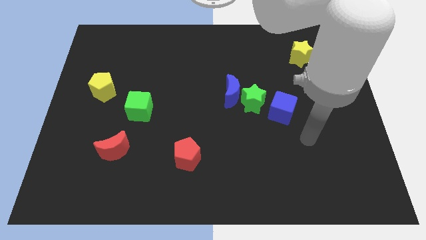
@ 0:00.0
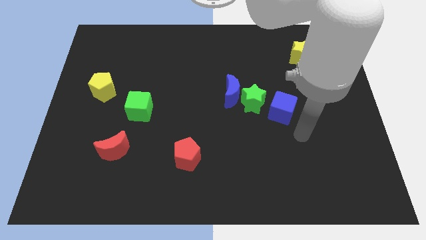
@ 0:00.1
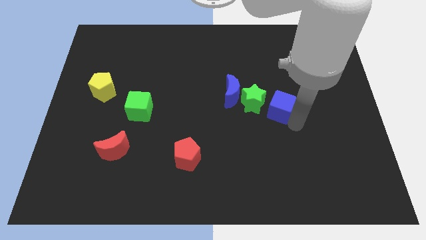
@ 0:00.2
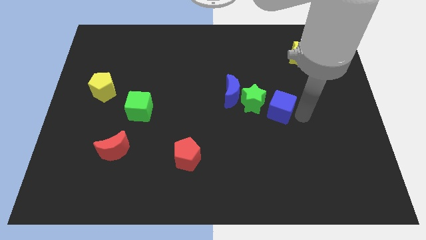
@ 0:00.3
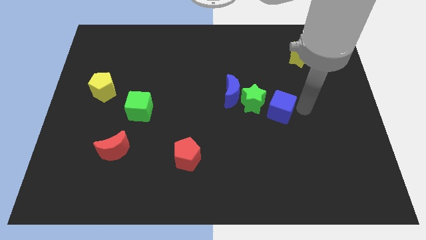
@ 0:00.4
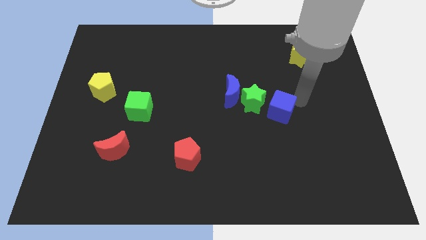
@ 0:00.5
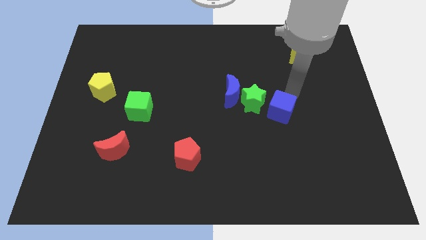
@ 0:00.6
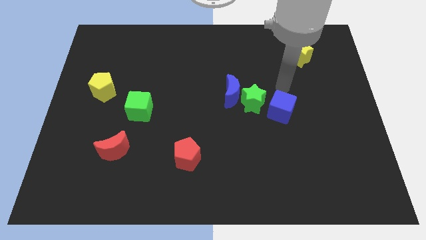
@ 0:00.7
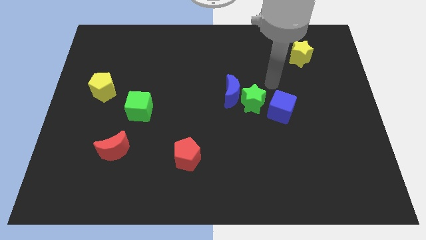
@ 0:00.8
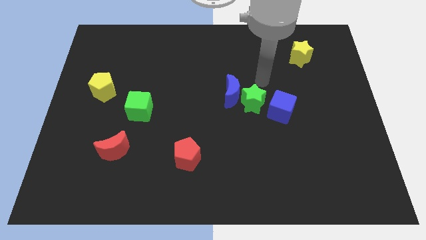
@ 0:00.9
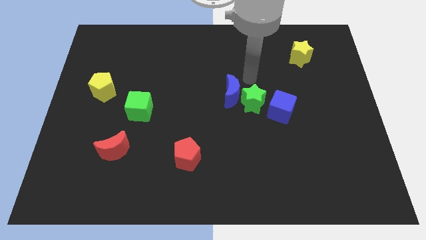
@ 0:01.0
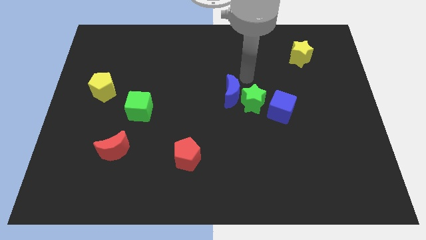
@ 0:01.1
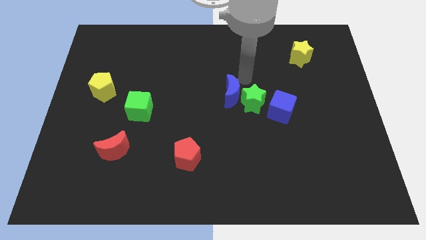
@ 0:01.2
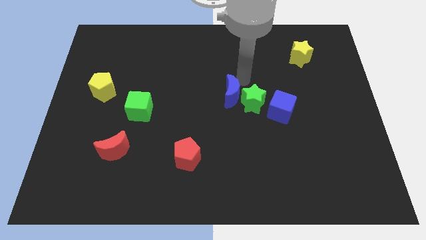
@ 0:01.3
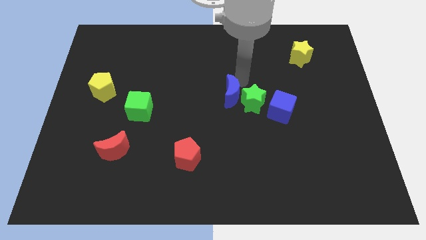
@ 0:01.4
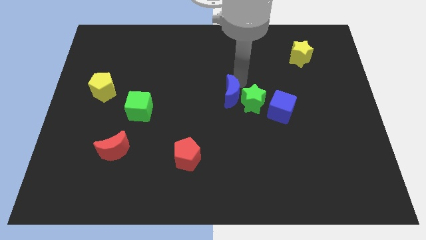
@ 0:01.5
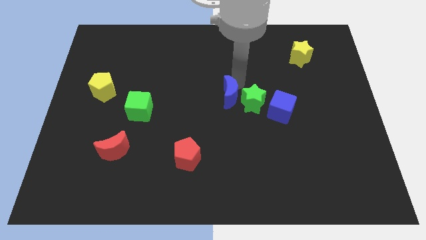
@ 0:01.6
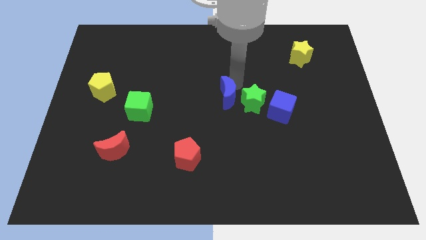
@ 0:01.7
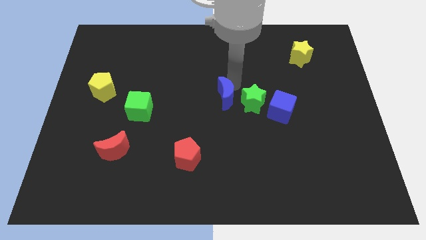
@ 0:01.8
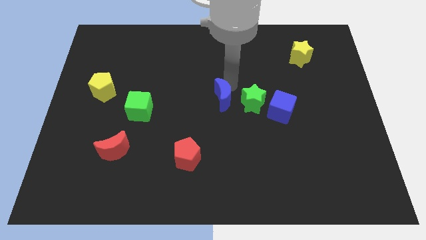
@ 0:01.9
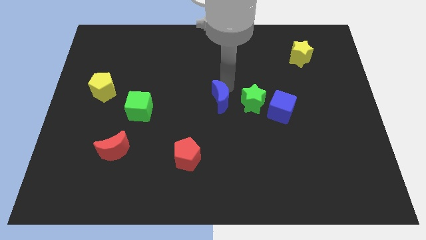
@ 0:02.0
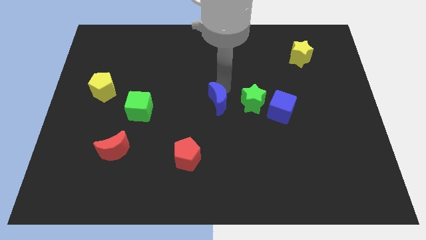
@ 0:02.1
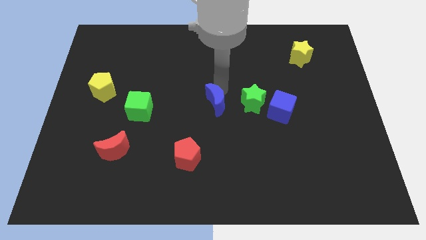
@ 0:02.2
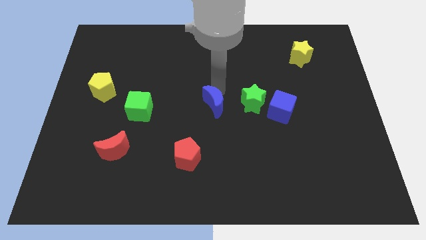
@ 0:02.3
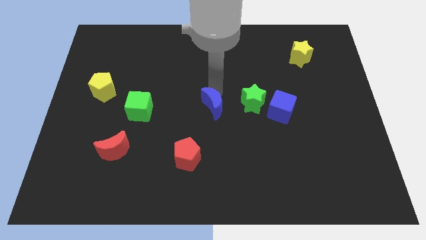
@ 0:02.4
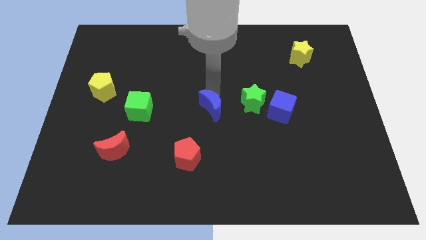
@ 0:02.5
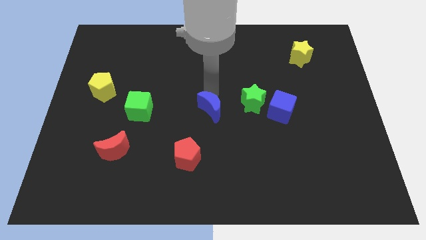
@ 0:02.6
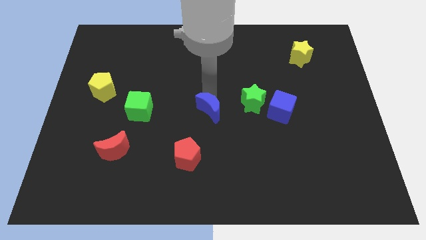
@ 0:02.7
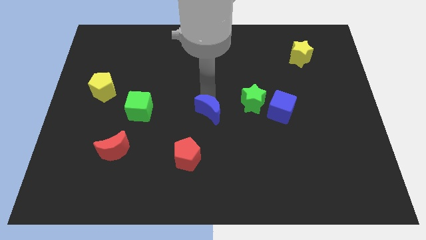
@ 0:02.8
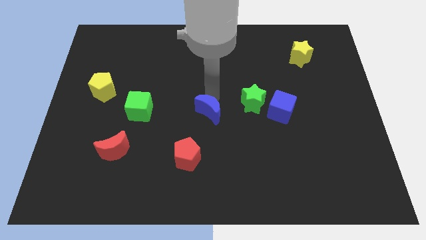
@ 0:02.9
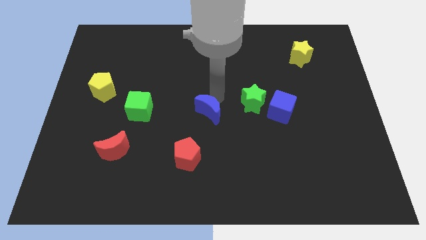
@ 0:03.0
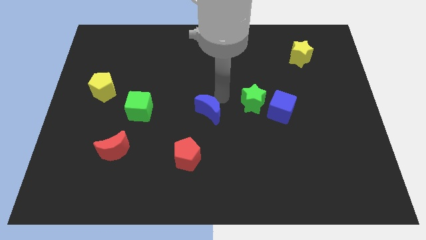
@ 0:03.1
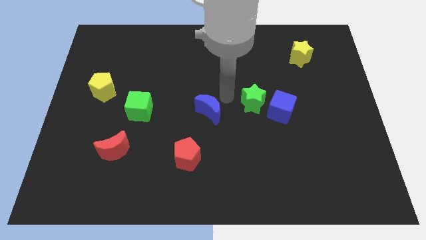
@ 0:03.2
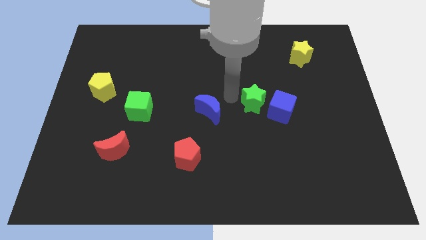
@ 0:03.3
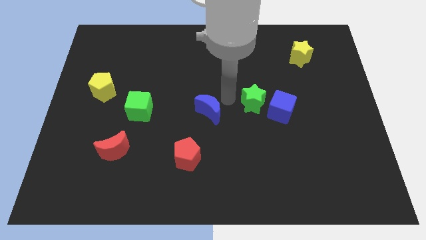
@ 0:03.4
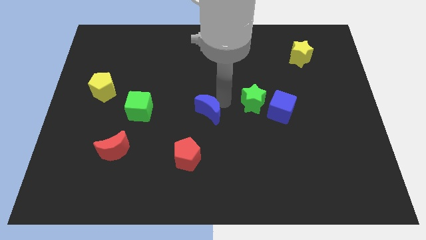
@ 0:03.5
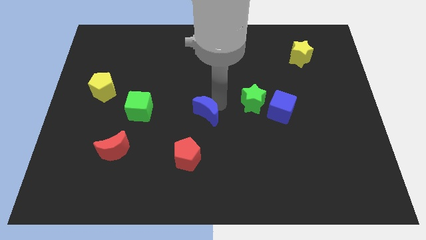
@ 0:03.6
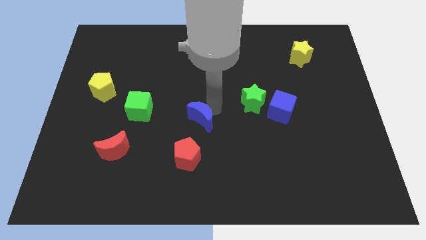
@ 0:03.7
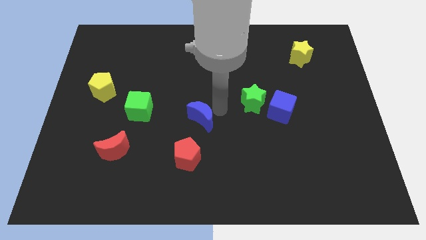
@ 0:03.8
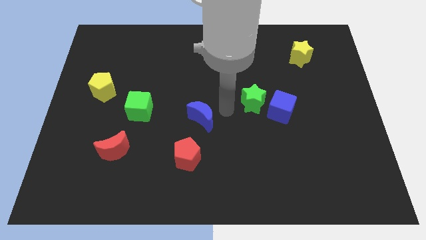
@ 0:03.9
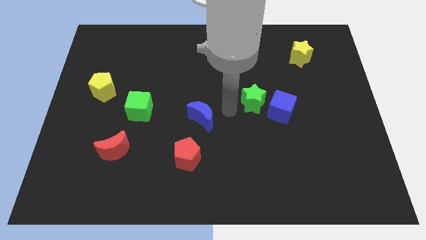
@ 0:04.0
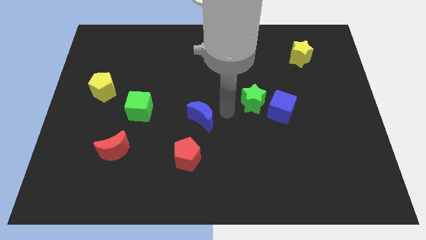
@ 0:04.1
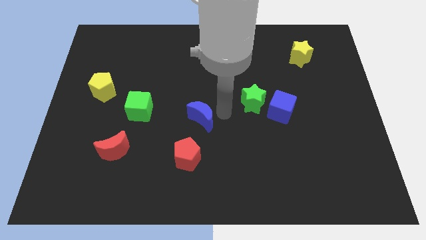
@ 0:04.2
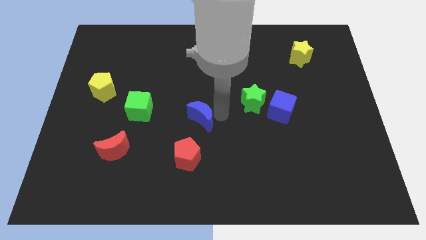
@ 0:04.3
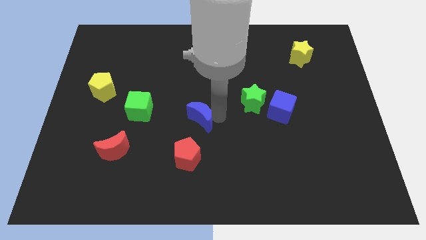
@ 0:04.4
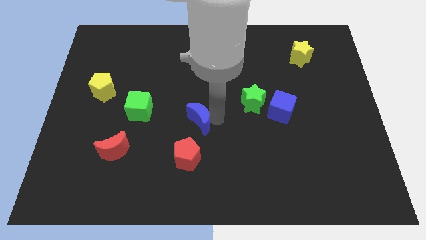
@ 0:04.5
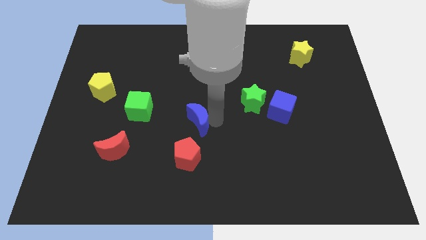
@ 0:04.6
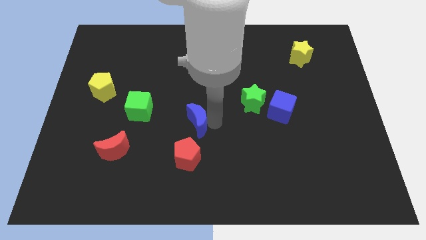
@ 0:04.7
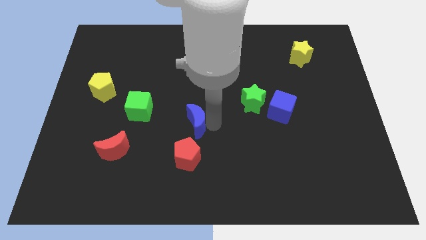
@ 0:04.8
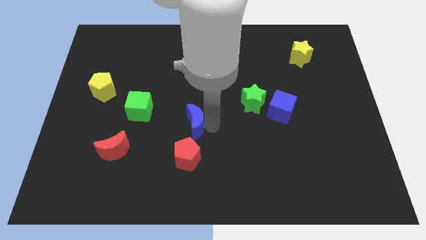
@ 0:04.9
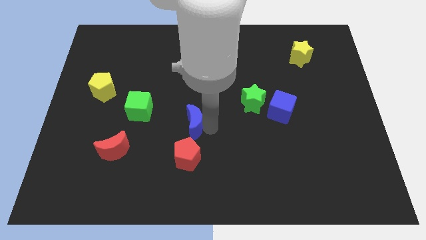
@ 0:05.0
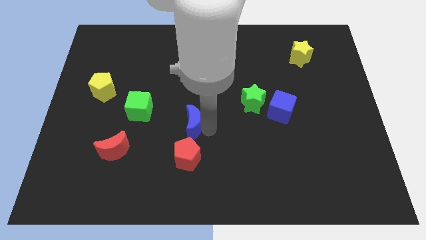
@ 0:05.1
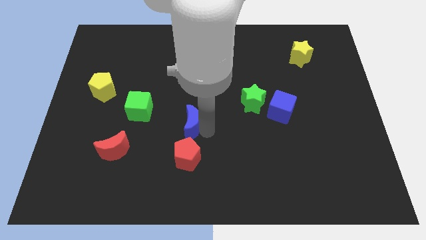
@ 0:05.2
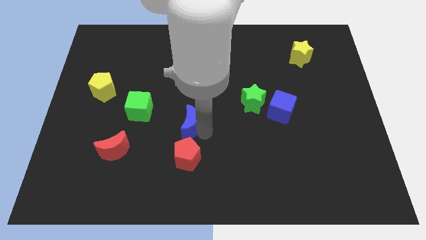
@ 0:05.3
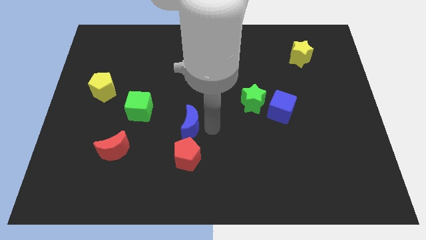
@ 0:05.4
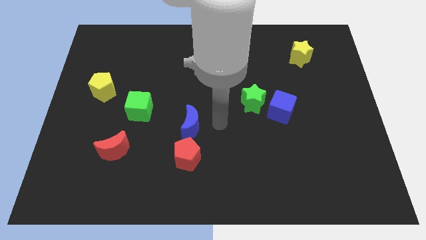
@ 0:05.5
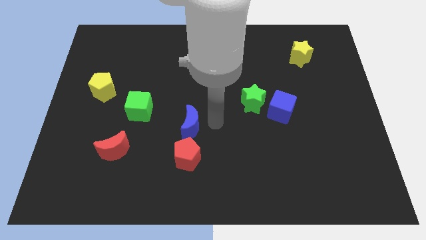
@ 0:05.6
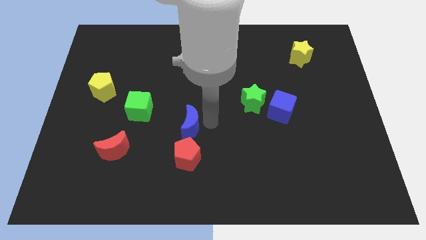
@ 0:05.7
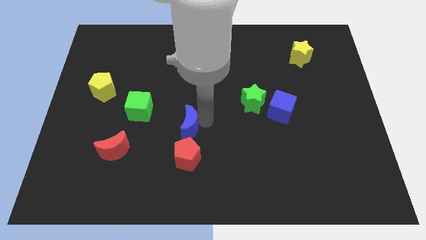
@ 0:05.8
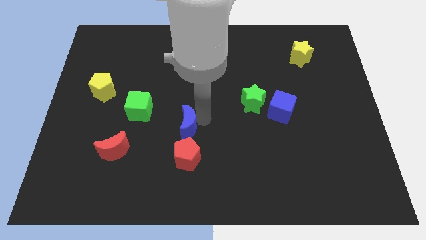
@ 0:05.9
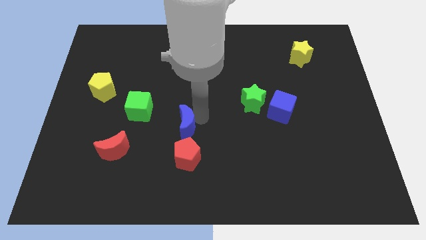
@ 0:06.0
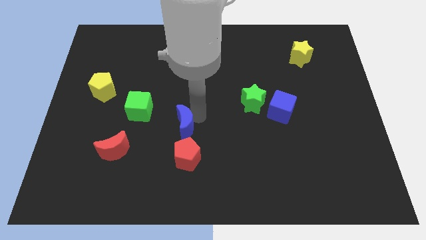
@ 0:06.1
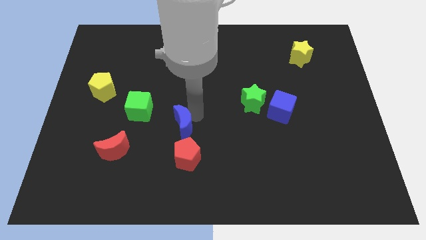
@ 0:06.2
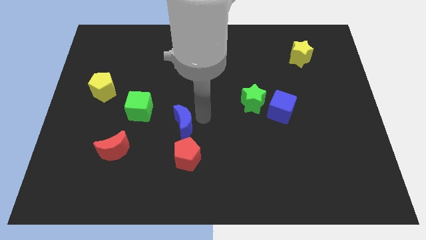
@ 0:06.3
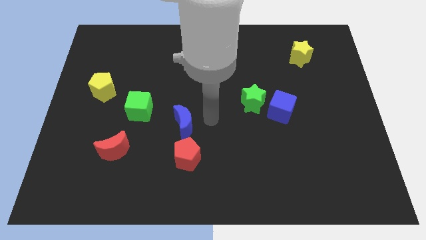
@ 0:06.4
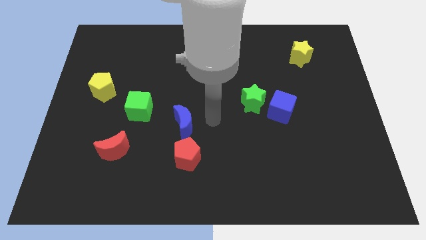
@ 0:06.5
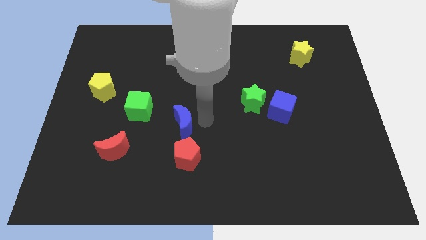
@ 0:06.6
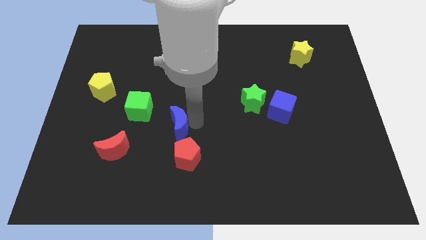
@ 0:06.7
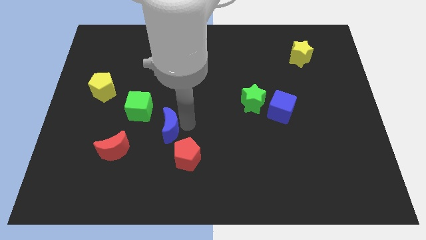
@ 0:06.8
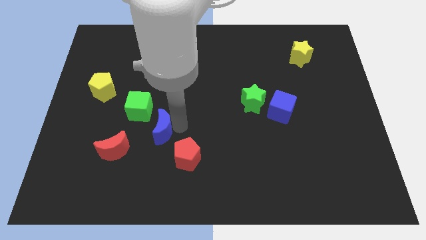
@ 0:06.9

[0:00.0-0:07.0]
slide the blue moon to the top right of the red moon

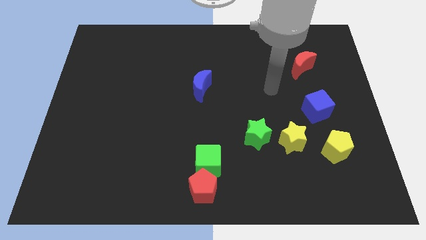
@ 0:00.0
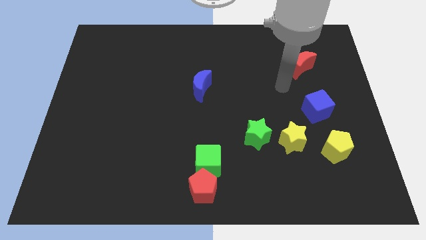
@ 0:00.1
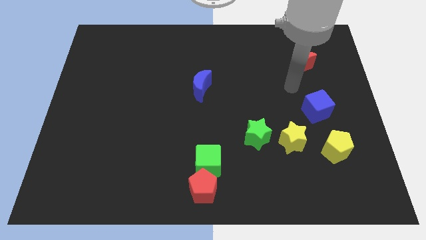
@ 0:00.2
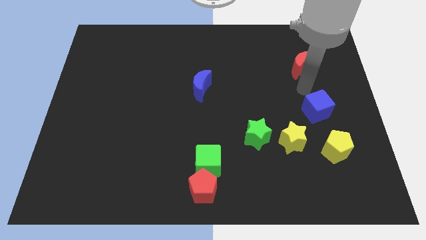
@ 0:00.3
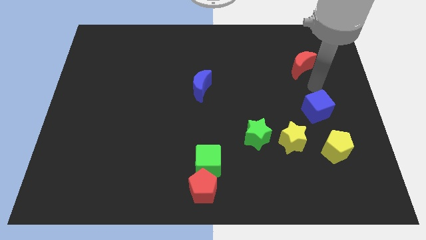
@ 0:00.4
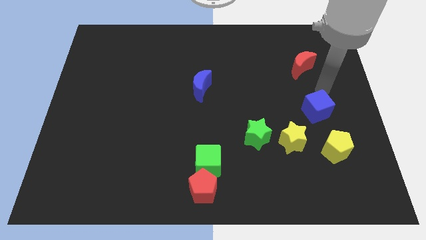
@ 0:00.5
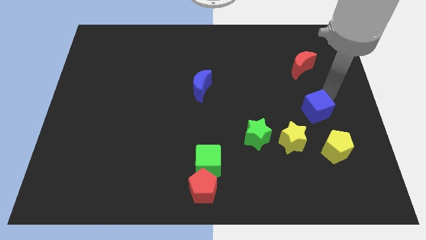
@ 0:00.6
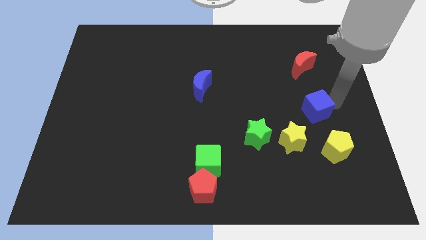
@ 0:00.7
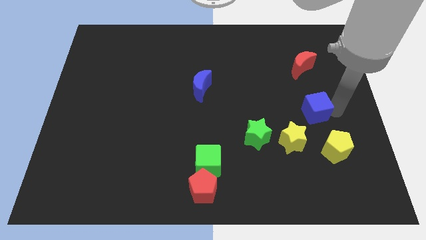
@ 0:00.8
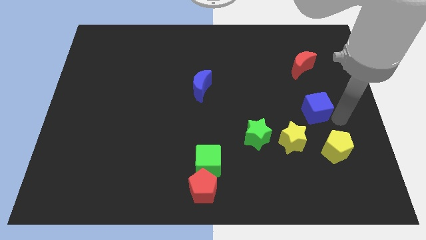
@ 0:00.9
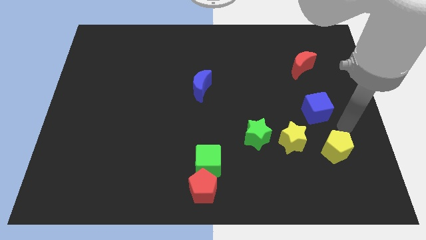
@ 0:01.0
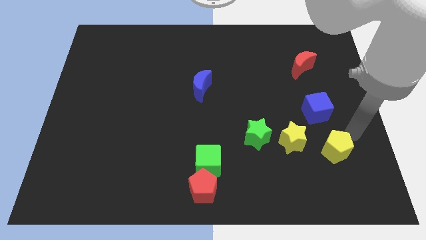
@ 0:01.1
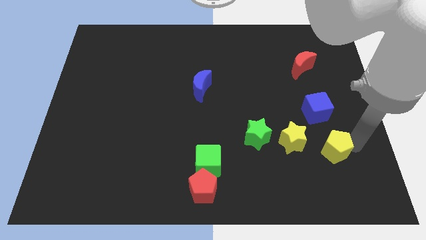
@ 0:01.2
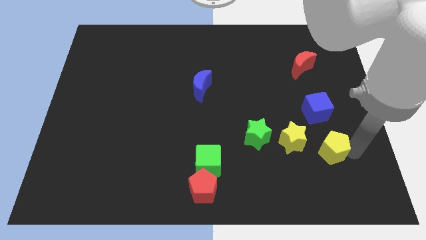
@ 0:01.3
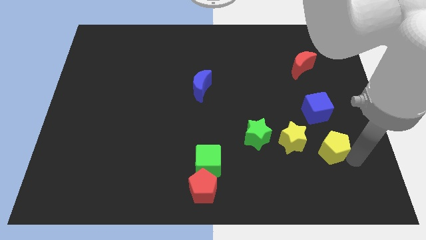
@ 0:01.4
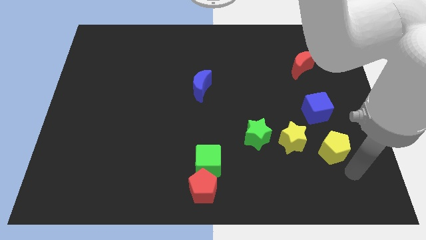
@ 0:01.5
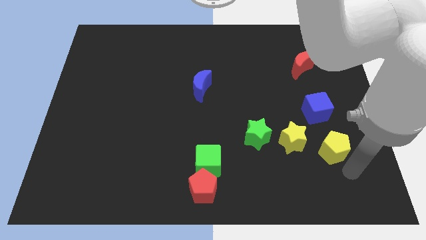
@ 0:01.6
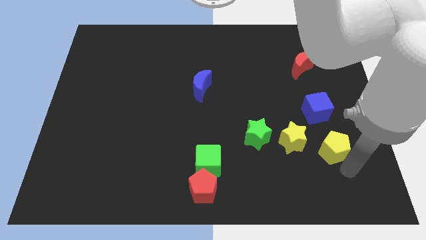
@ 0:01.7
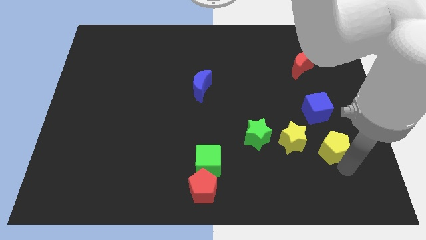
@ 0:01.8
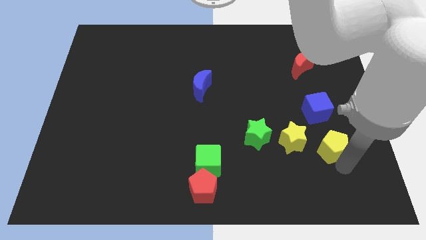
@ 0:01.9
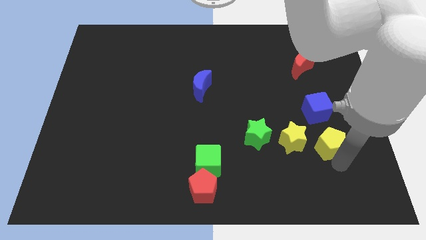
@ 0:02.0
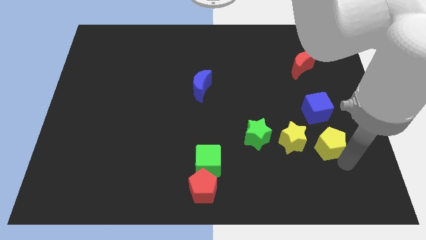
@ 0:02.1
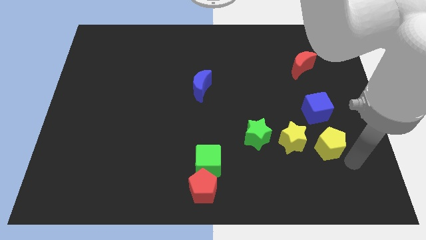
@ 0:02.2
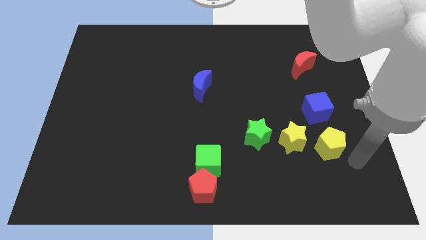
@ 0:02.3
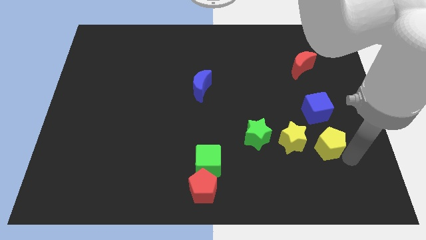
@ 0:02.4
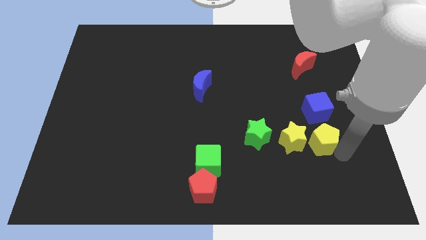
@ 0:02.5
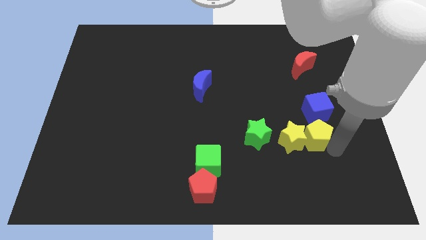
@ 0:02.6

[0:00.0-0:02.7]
push the yellow pentagon diagonally down and to the left of the blue cube
